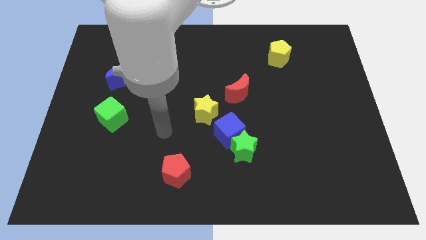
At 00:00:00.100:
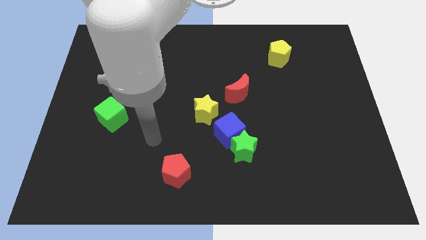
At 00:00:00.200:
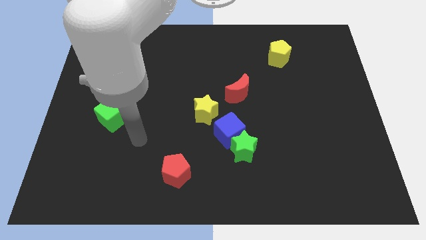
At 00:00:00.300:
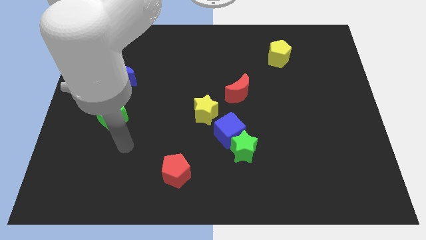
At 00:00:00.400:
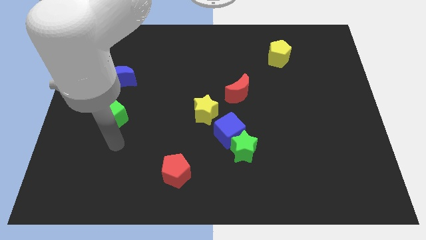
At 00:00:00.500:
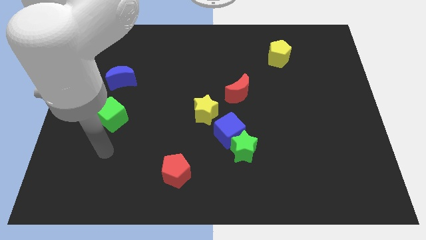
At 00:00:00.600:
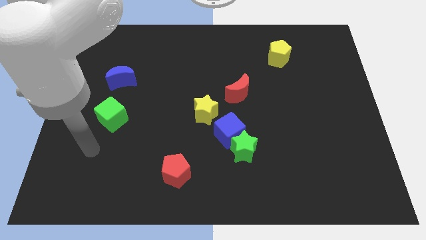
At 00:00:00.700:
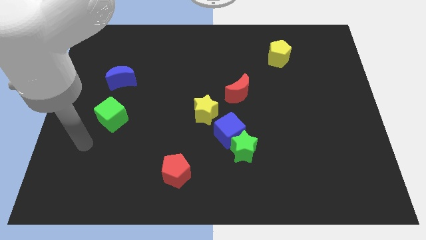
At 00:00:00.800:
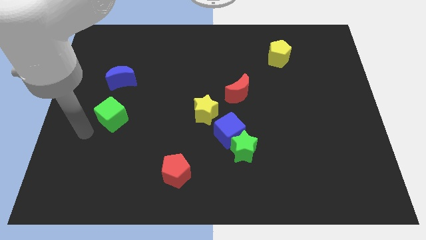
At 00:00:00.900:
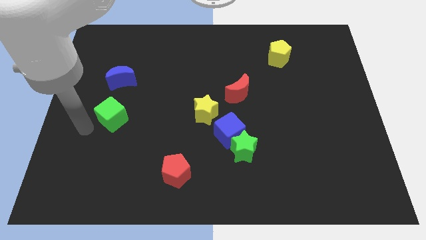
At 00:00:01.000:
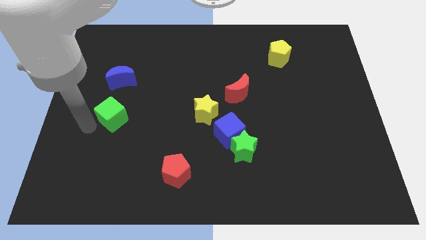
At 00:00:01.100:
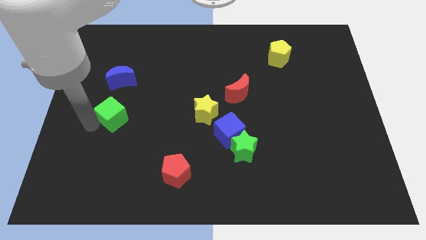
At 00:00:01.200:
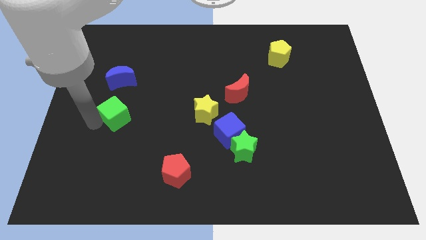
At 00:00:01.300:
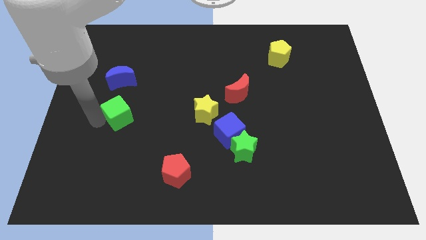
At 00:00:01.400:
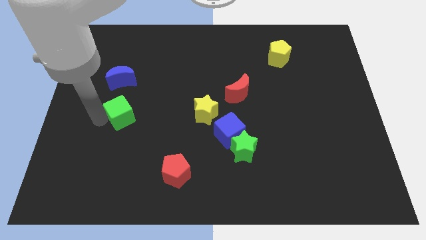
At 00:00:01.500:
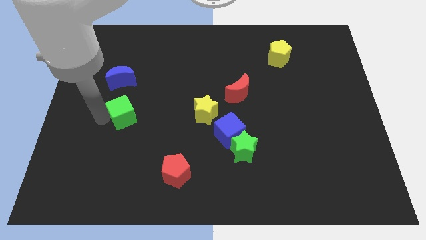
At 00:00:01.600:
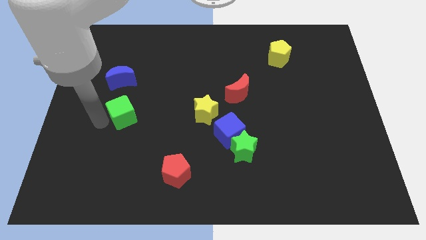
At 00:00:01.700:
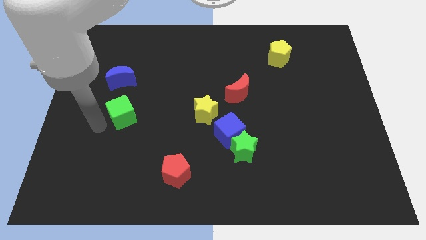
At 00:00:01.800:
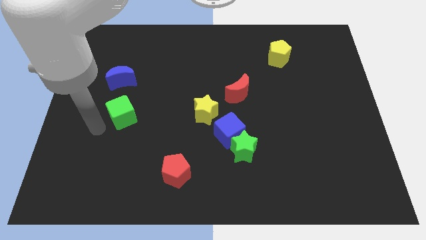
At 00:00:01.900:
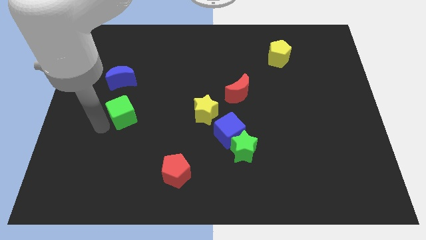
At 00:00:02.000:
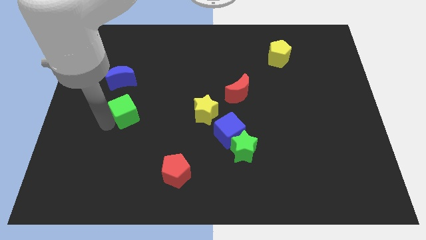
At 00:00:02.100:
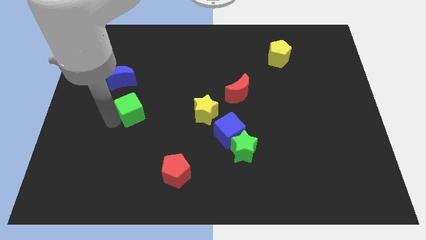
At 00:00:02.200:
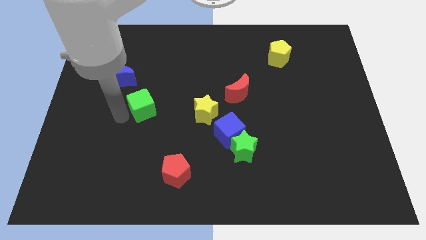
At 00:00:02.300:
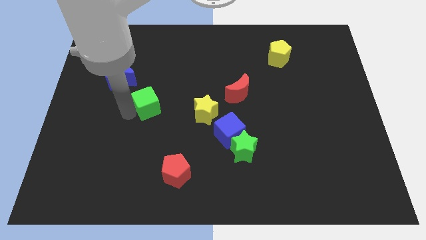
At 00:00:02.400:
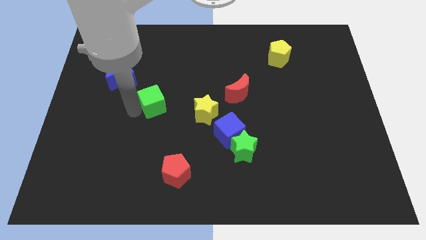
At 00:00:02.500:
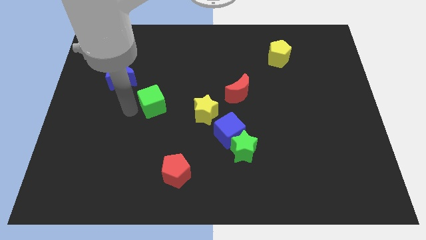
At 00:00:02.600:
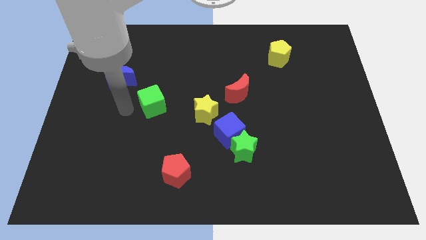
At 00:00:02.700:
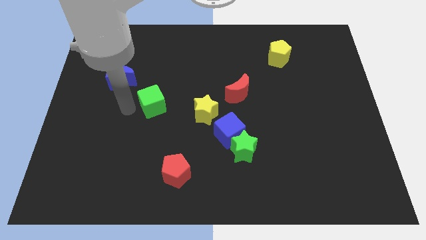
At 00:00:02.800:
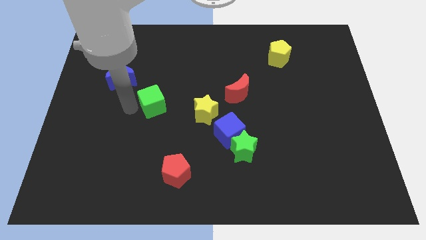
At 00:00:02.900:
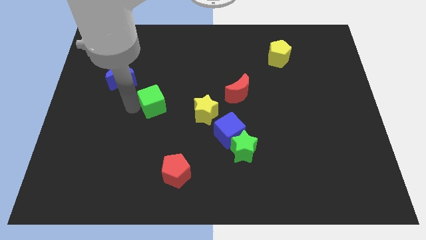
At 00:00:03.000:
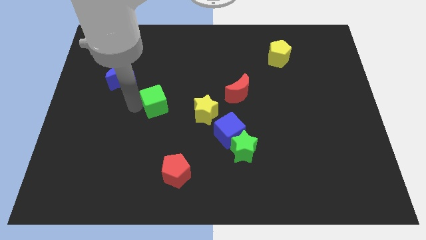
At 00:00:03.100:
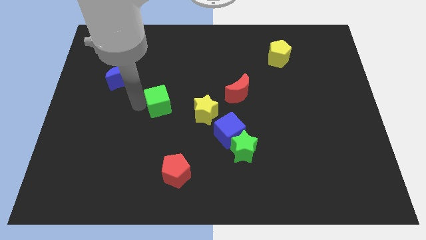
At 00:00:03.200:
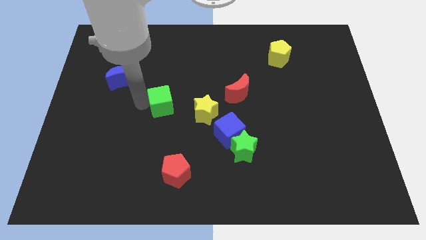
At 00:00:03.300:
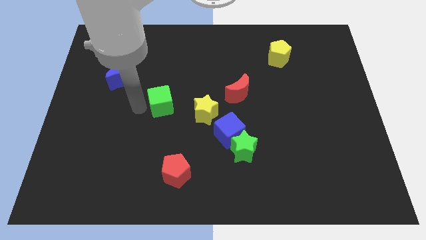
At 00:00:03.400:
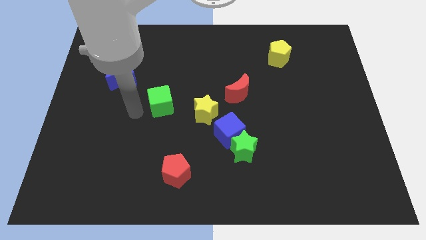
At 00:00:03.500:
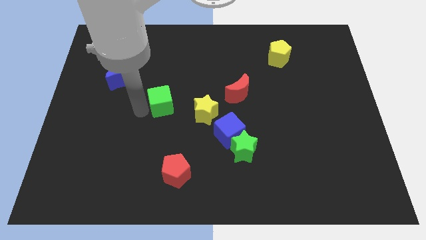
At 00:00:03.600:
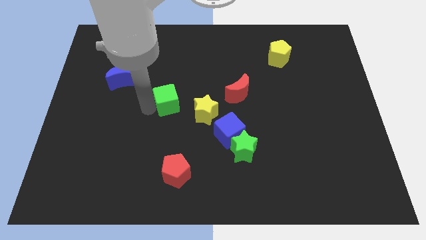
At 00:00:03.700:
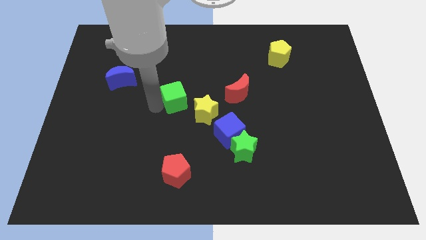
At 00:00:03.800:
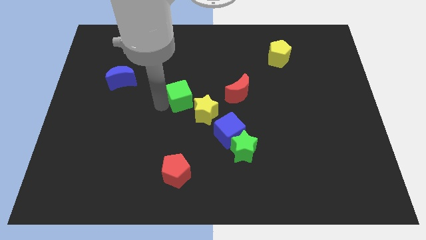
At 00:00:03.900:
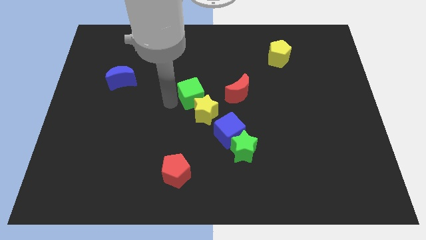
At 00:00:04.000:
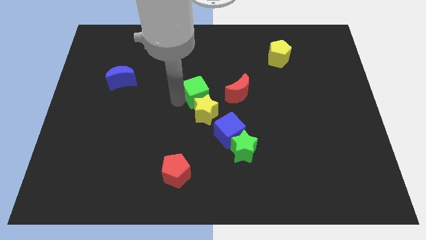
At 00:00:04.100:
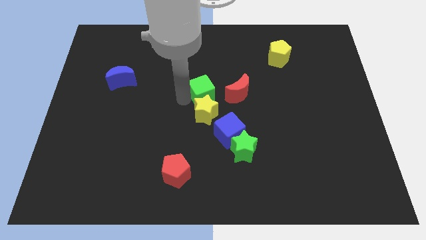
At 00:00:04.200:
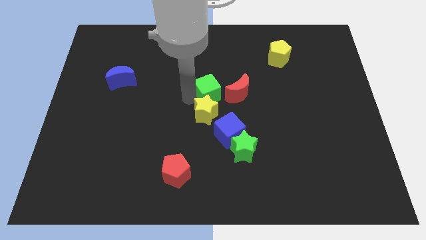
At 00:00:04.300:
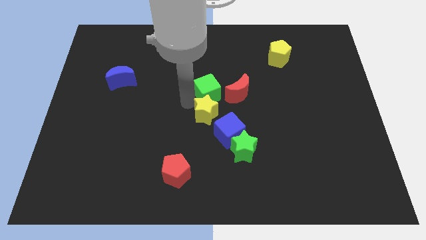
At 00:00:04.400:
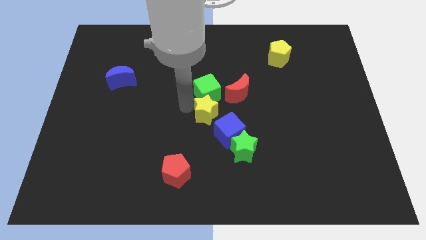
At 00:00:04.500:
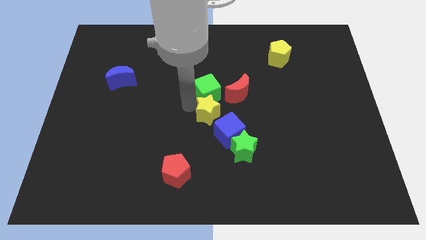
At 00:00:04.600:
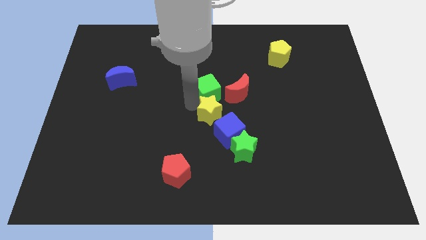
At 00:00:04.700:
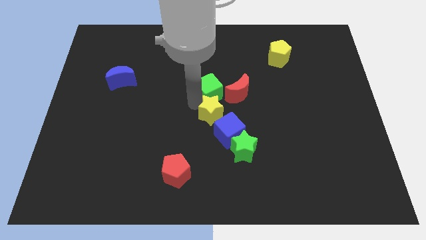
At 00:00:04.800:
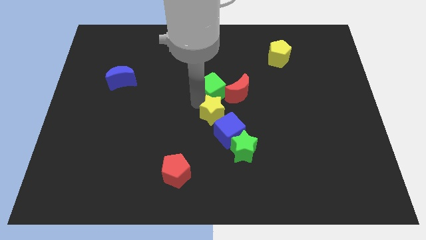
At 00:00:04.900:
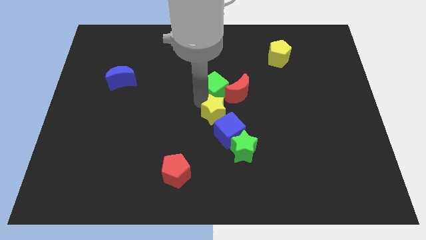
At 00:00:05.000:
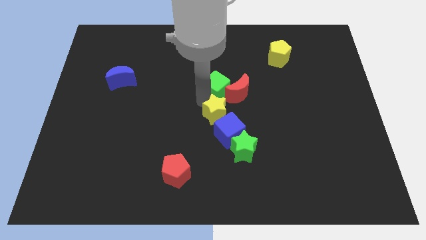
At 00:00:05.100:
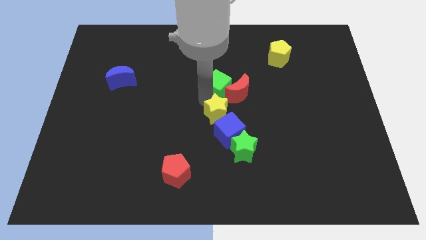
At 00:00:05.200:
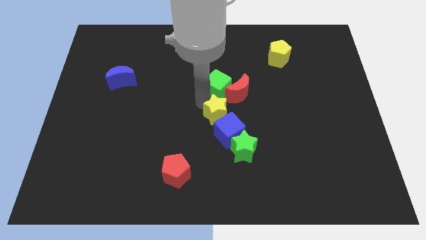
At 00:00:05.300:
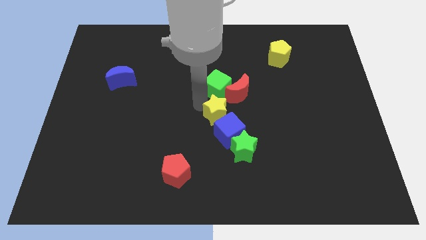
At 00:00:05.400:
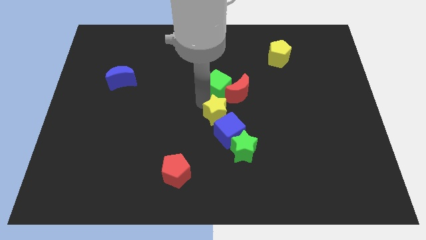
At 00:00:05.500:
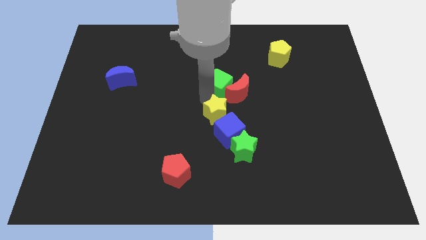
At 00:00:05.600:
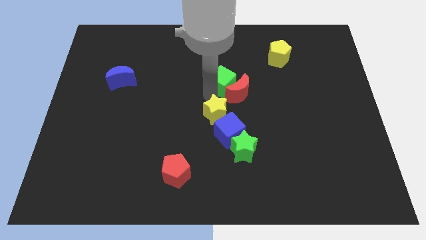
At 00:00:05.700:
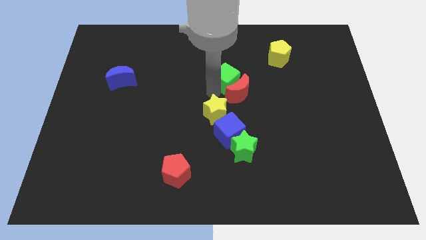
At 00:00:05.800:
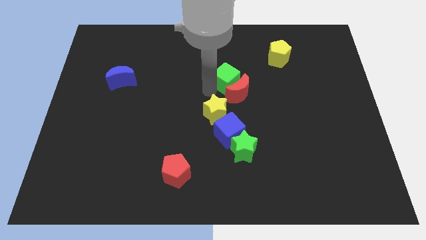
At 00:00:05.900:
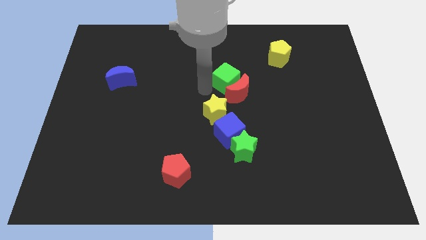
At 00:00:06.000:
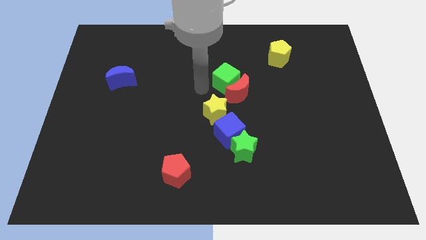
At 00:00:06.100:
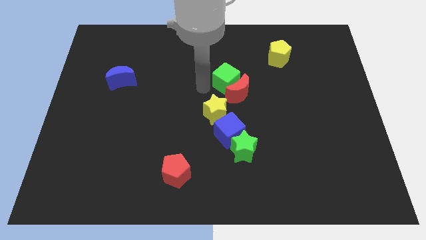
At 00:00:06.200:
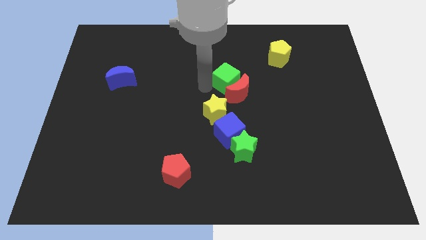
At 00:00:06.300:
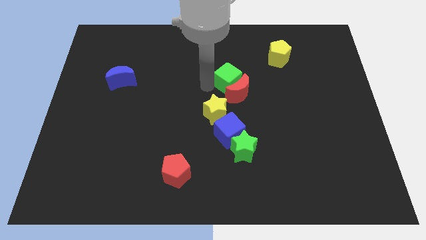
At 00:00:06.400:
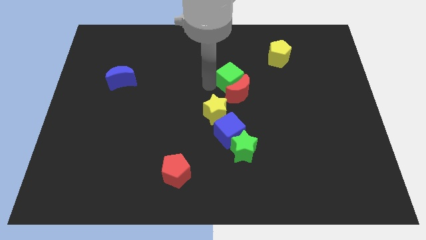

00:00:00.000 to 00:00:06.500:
put the green cube to the top right side of the red moon

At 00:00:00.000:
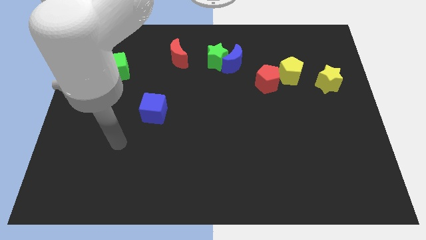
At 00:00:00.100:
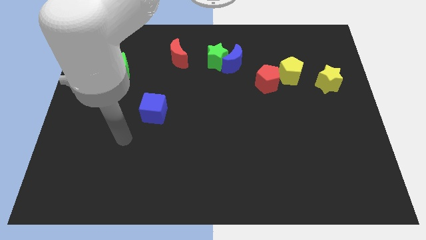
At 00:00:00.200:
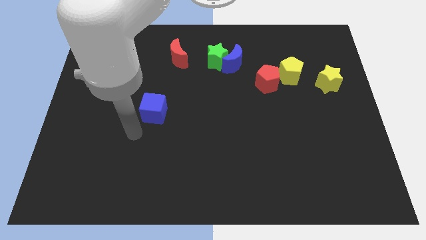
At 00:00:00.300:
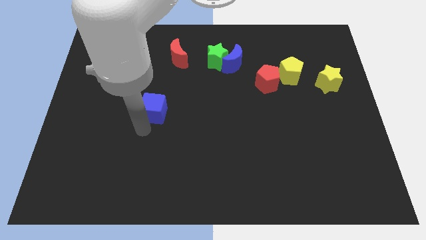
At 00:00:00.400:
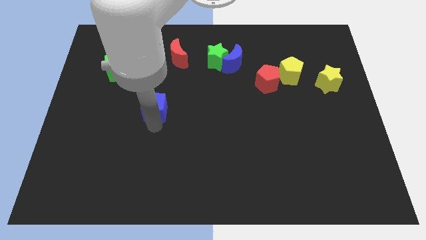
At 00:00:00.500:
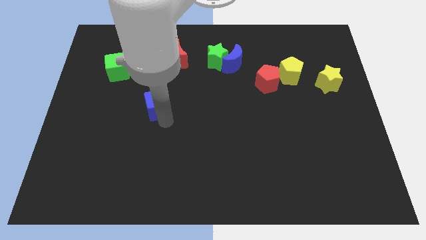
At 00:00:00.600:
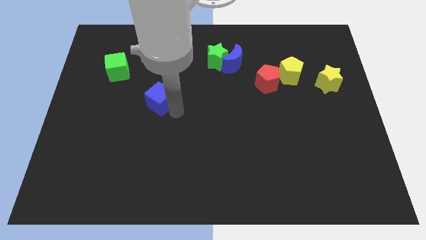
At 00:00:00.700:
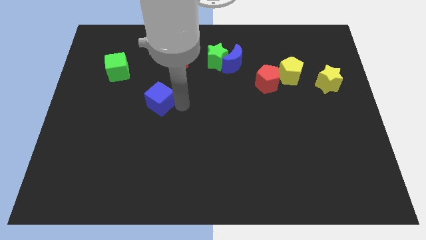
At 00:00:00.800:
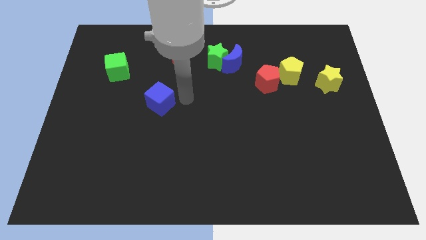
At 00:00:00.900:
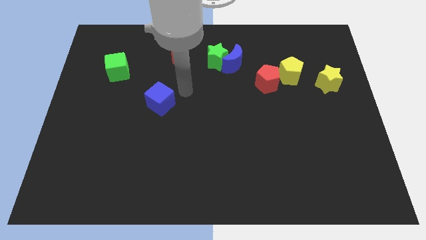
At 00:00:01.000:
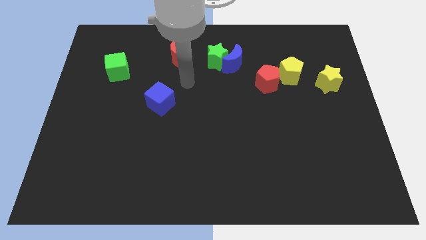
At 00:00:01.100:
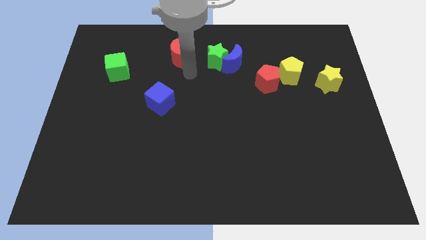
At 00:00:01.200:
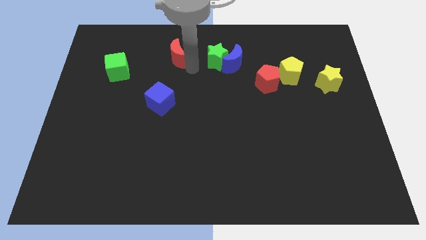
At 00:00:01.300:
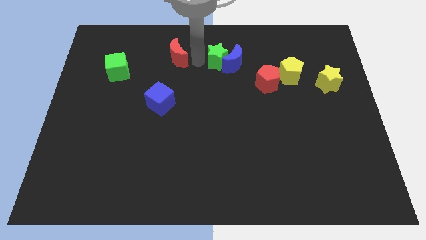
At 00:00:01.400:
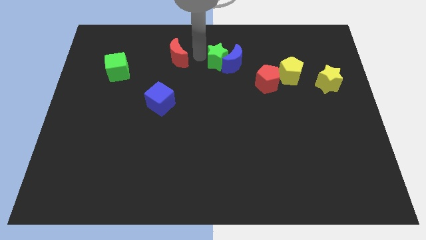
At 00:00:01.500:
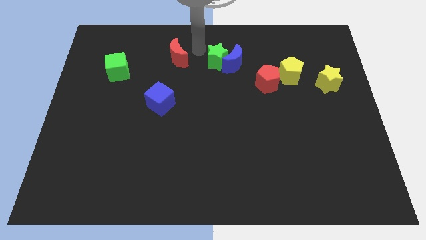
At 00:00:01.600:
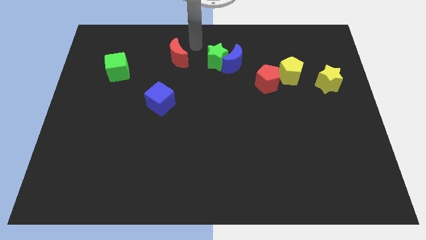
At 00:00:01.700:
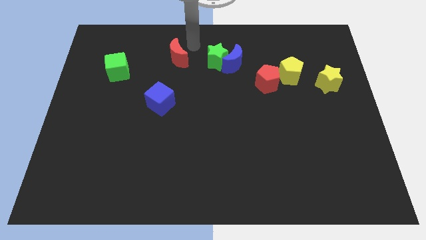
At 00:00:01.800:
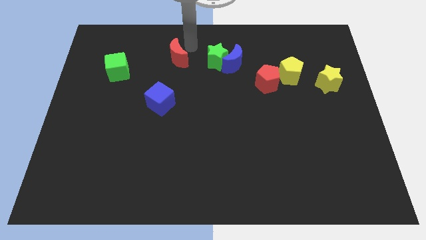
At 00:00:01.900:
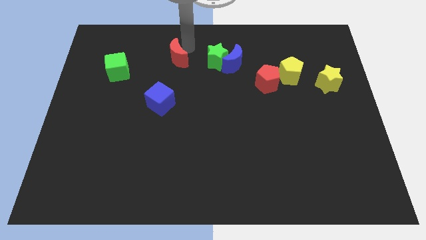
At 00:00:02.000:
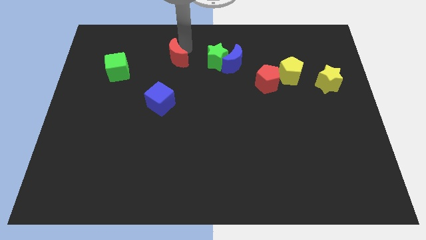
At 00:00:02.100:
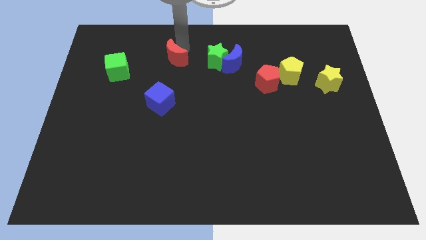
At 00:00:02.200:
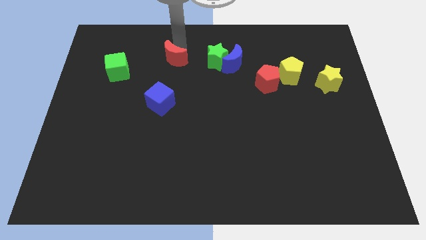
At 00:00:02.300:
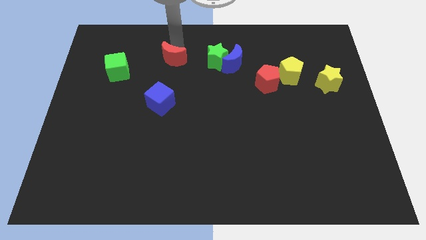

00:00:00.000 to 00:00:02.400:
slide the red moon right of the green cube
